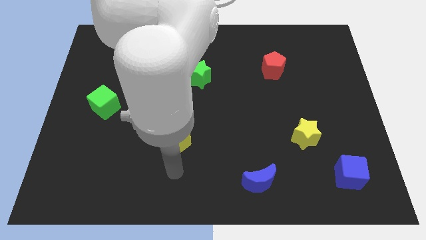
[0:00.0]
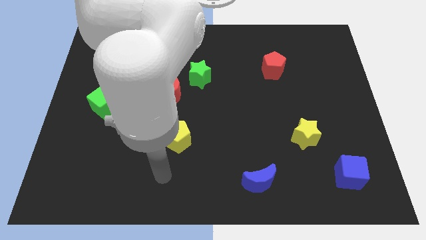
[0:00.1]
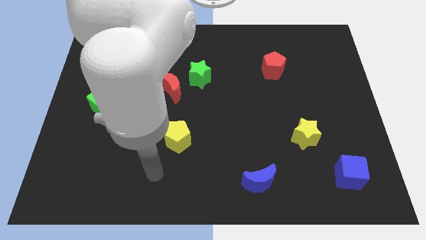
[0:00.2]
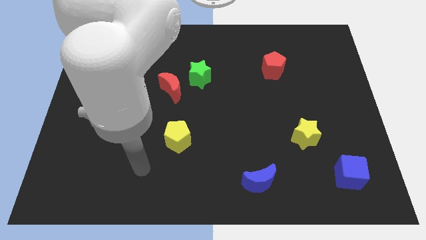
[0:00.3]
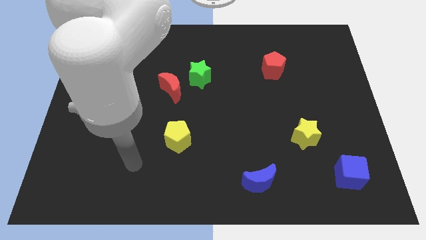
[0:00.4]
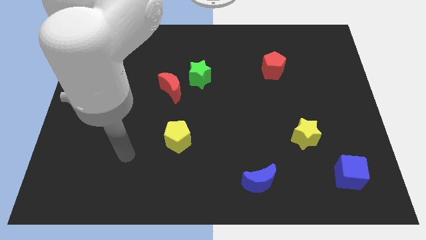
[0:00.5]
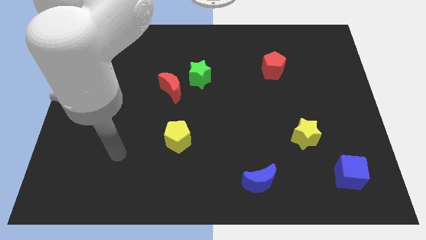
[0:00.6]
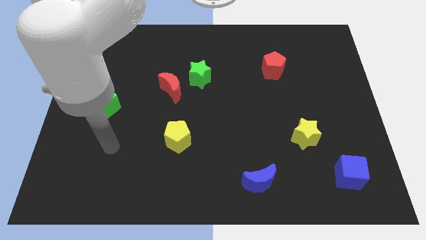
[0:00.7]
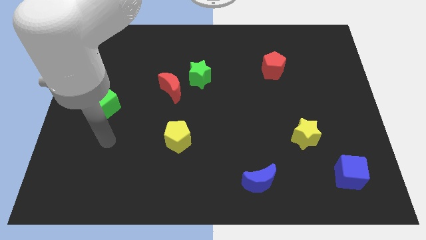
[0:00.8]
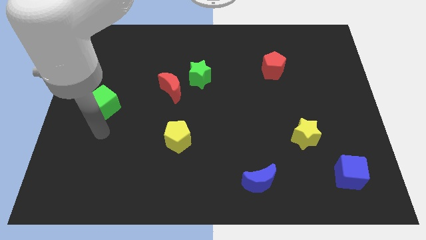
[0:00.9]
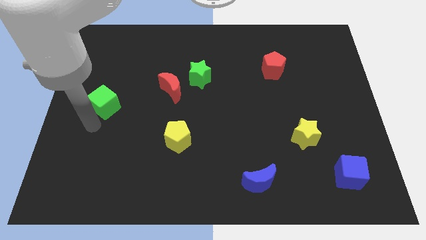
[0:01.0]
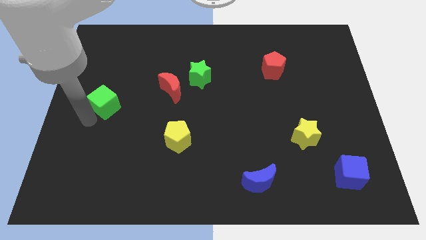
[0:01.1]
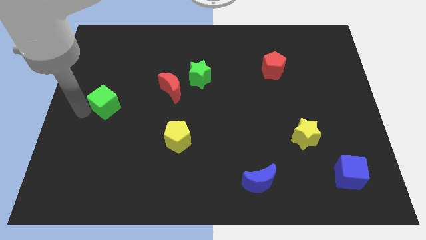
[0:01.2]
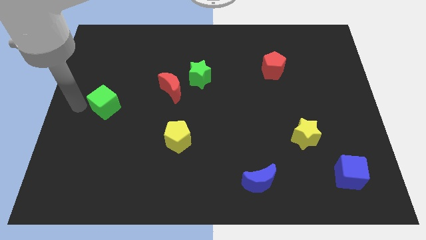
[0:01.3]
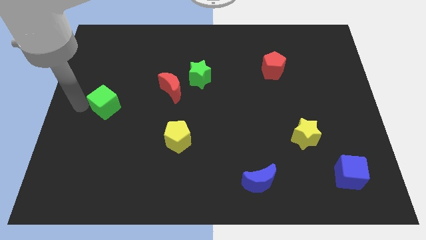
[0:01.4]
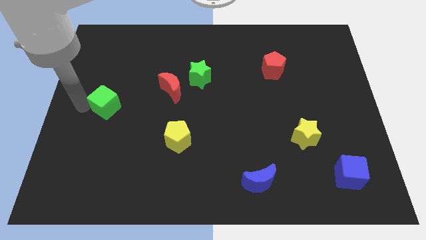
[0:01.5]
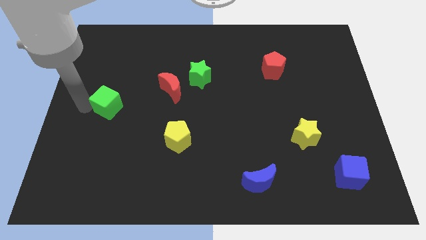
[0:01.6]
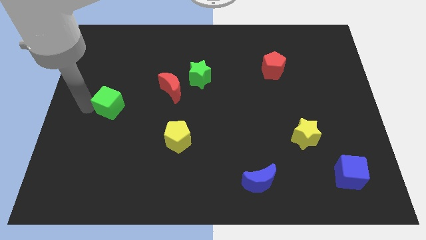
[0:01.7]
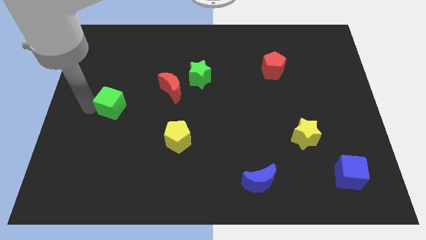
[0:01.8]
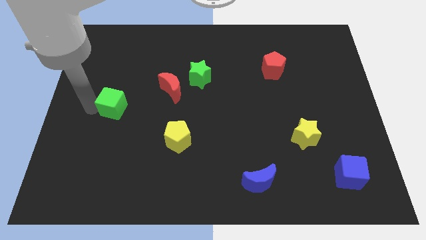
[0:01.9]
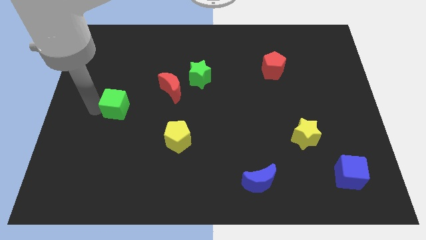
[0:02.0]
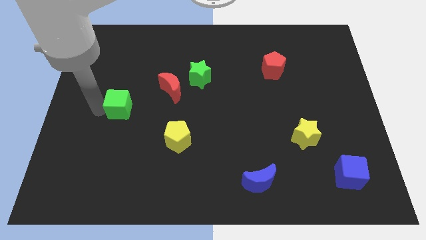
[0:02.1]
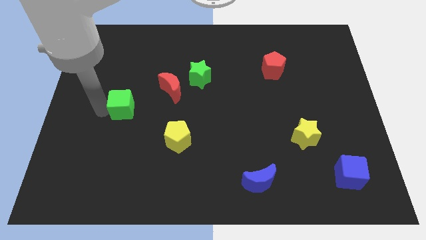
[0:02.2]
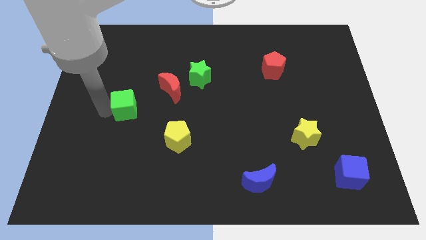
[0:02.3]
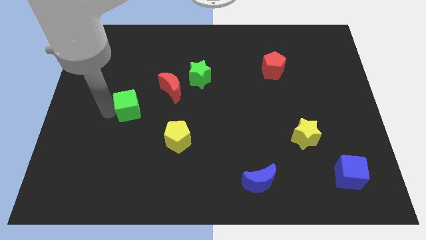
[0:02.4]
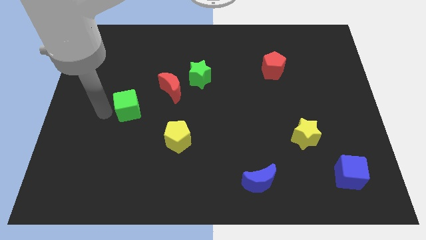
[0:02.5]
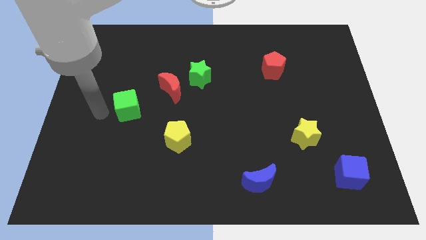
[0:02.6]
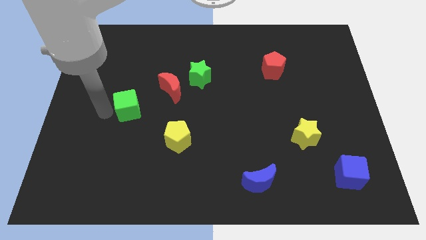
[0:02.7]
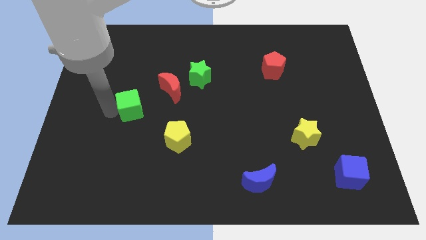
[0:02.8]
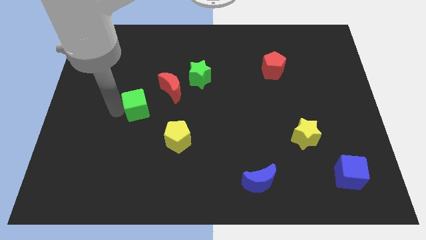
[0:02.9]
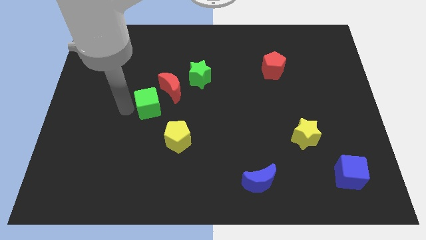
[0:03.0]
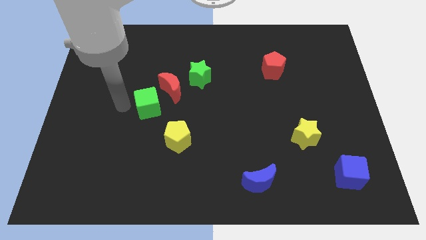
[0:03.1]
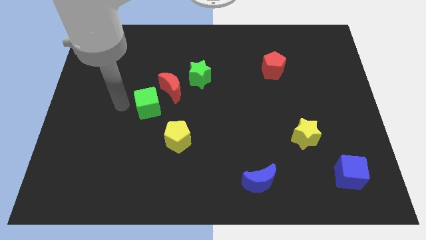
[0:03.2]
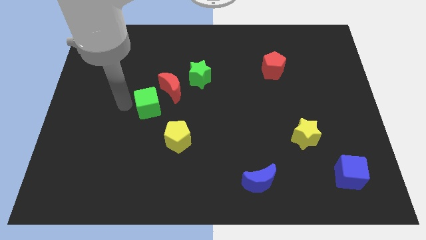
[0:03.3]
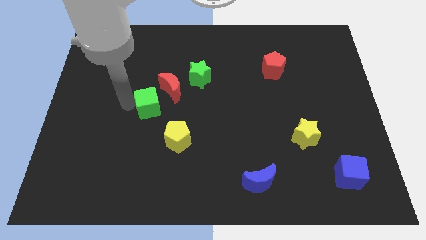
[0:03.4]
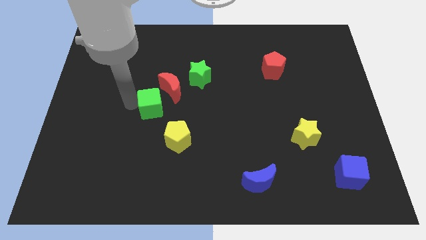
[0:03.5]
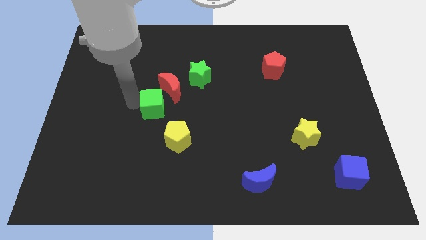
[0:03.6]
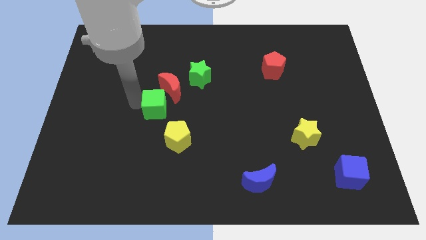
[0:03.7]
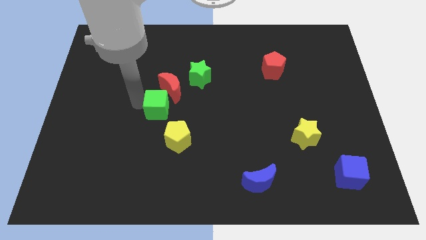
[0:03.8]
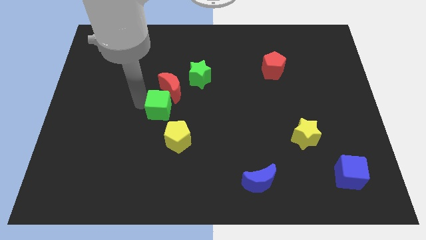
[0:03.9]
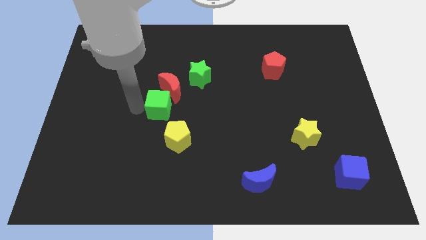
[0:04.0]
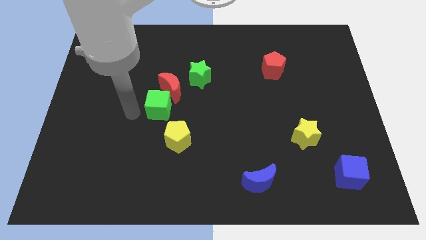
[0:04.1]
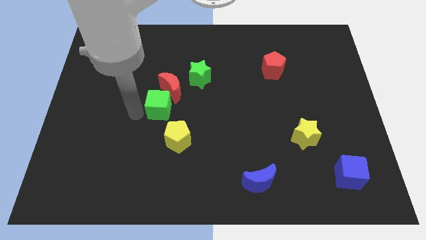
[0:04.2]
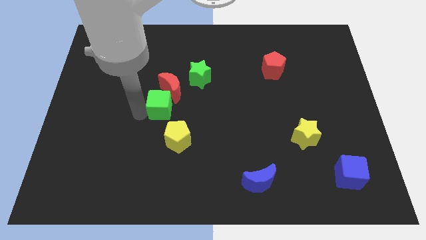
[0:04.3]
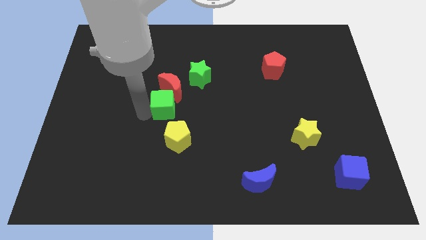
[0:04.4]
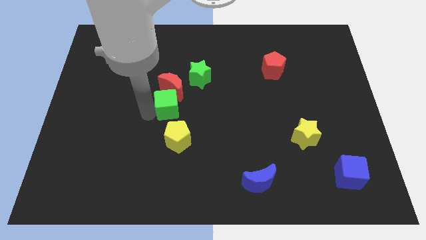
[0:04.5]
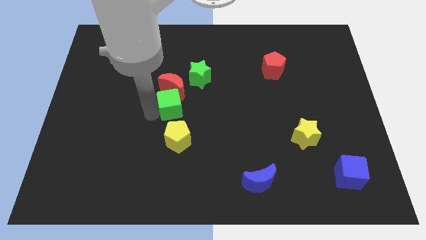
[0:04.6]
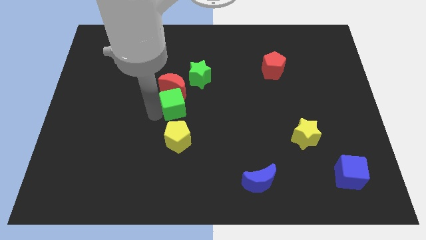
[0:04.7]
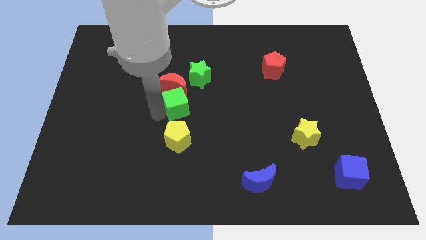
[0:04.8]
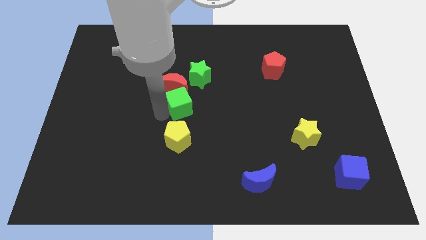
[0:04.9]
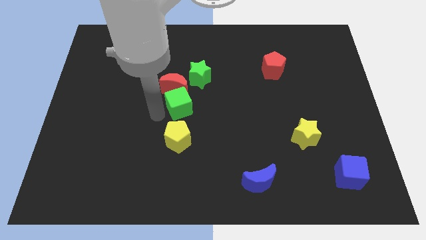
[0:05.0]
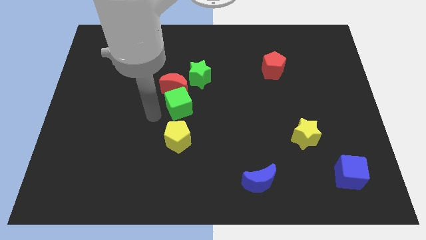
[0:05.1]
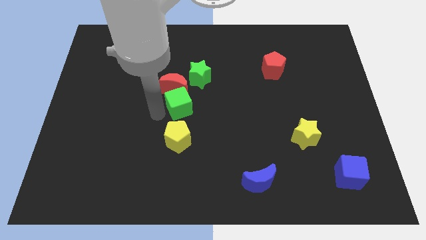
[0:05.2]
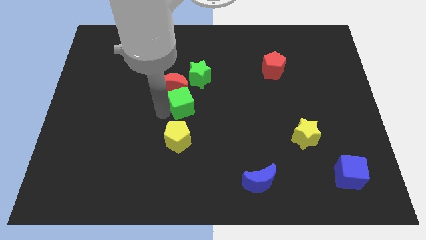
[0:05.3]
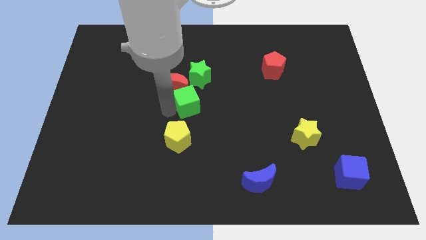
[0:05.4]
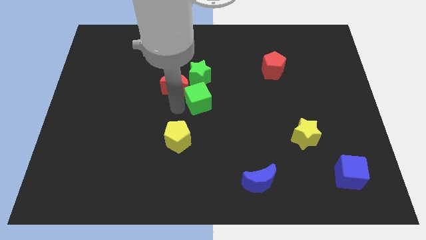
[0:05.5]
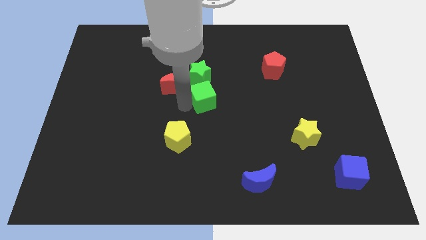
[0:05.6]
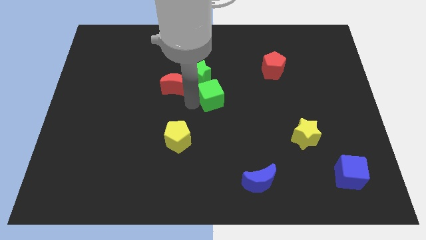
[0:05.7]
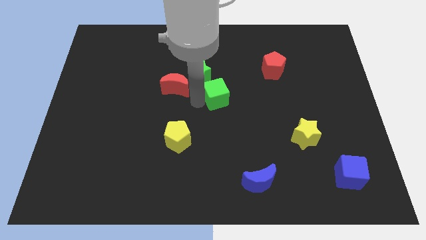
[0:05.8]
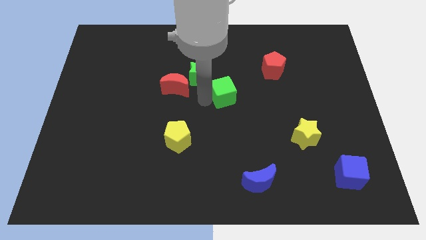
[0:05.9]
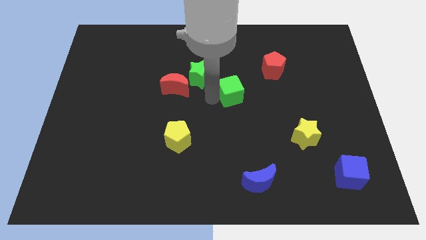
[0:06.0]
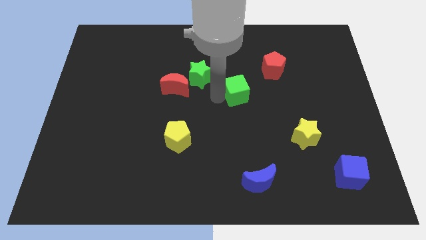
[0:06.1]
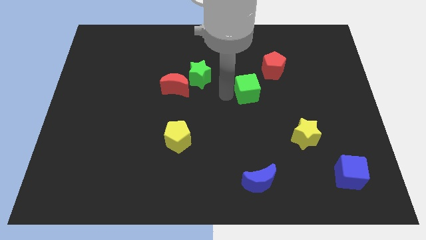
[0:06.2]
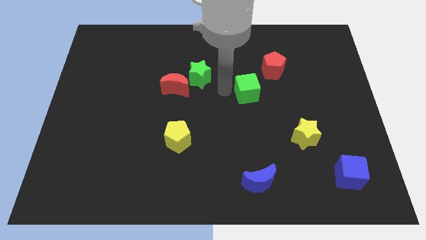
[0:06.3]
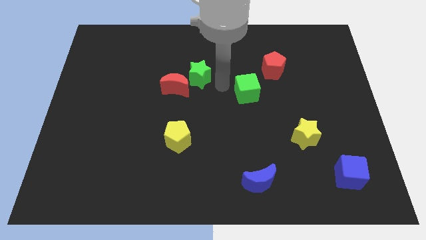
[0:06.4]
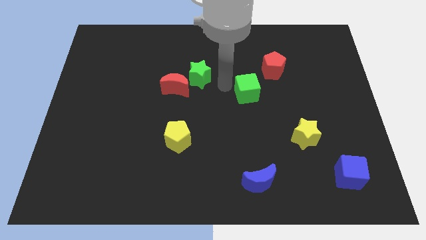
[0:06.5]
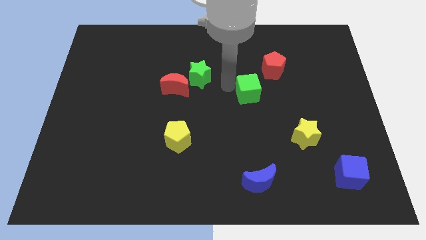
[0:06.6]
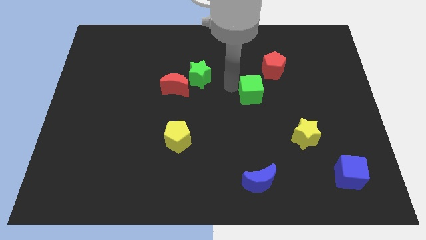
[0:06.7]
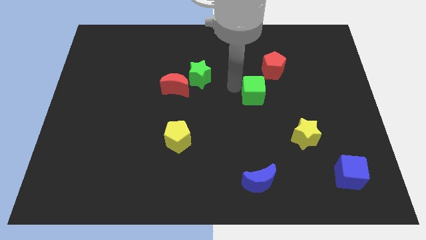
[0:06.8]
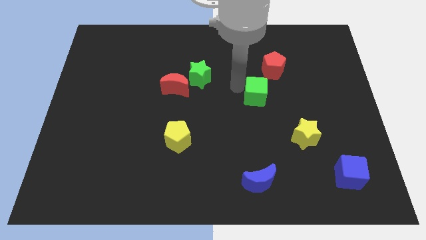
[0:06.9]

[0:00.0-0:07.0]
put the green cube below the red pentagon
